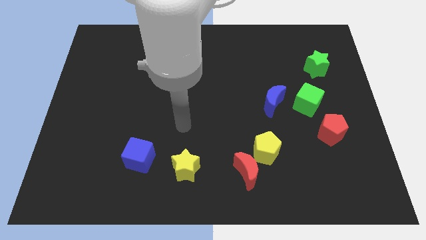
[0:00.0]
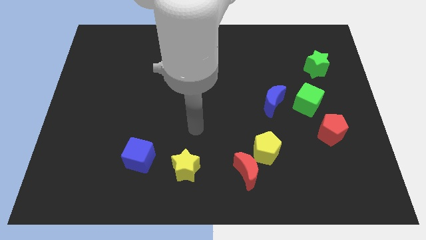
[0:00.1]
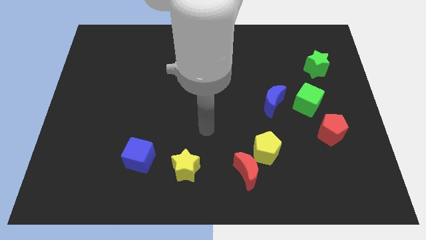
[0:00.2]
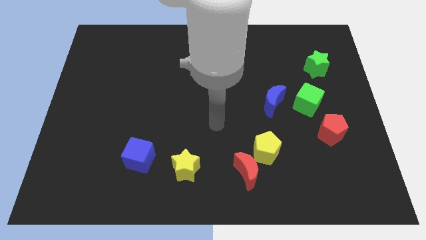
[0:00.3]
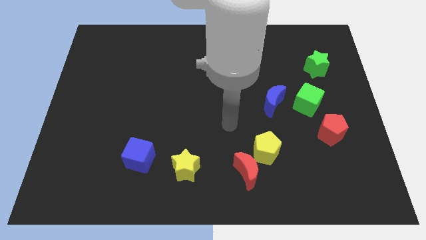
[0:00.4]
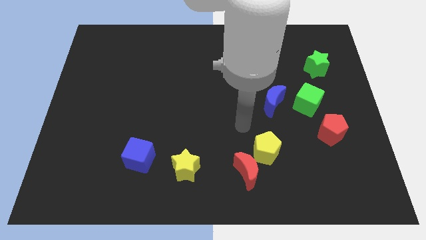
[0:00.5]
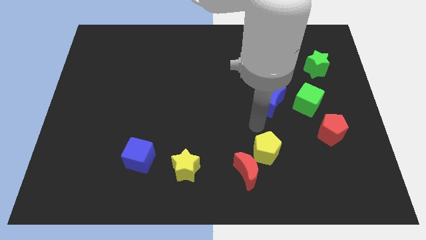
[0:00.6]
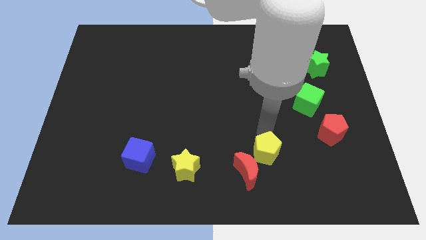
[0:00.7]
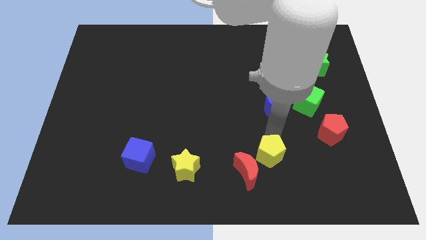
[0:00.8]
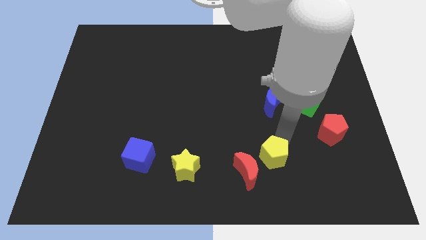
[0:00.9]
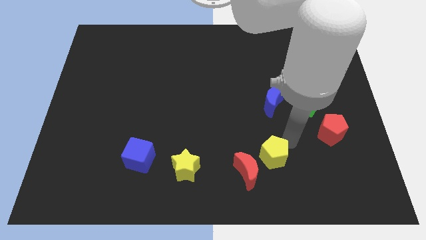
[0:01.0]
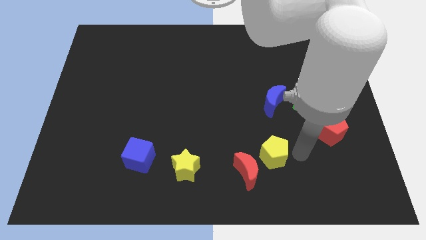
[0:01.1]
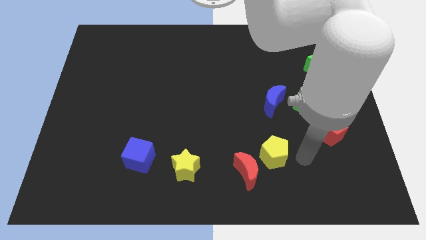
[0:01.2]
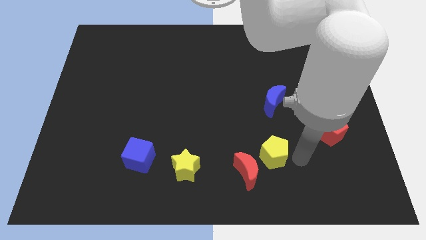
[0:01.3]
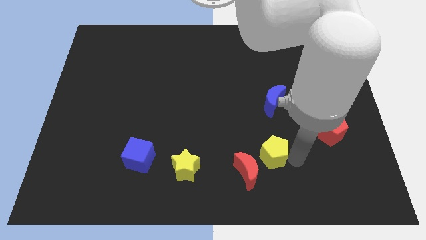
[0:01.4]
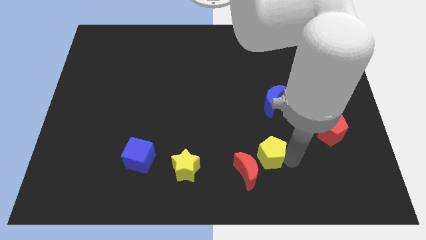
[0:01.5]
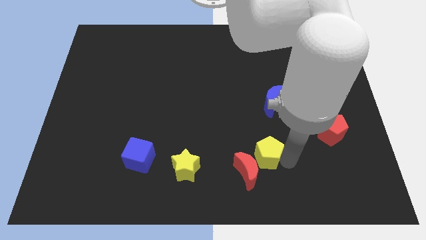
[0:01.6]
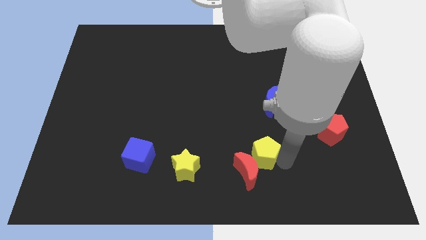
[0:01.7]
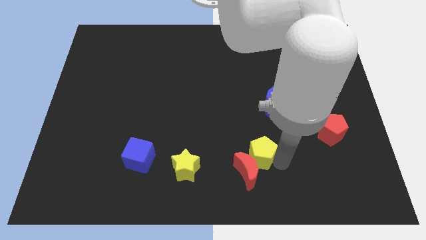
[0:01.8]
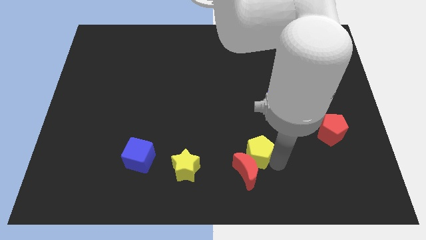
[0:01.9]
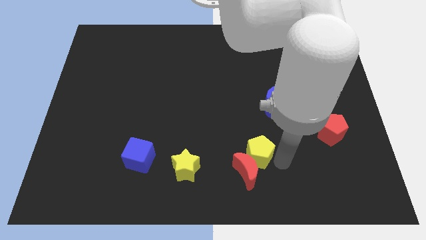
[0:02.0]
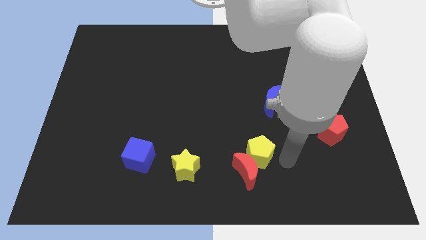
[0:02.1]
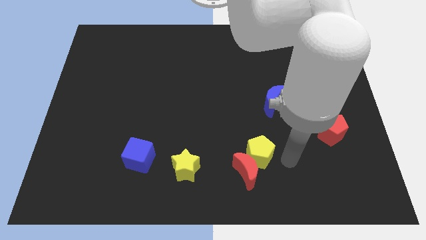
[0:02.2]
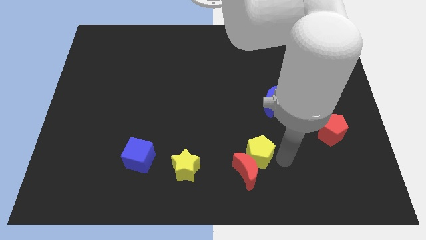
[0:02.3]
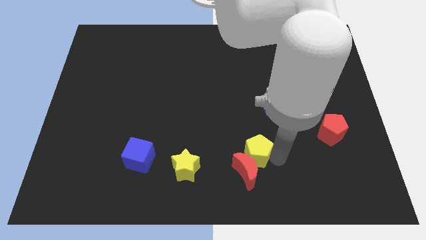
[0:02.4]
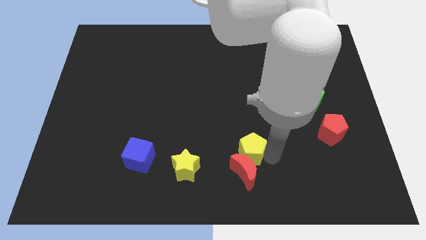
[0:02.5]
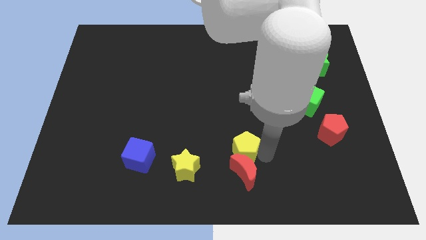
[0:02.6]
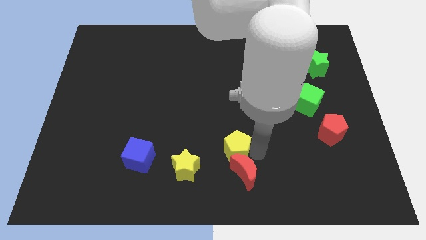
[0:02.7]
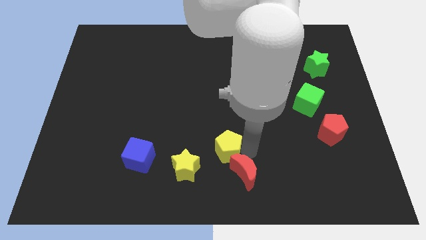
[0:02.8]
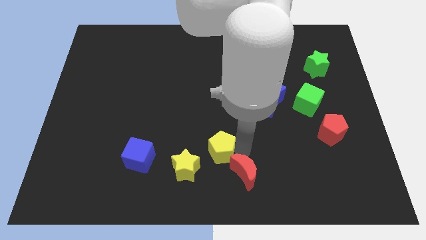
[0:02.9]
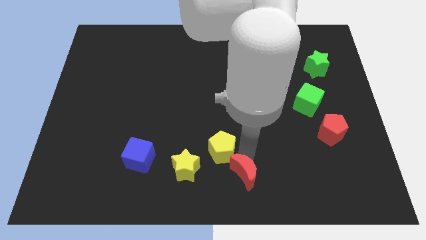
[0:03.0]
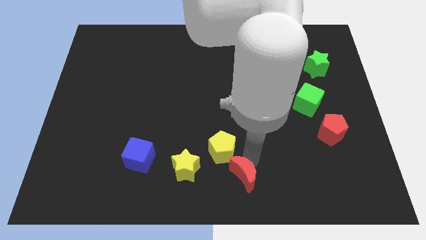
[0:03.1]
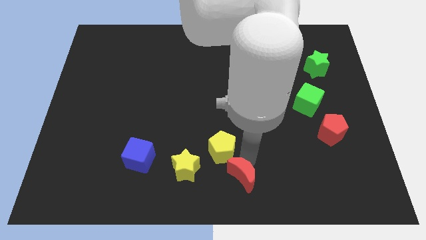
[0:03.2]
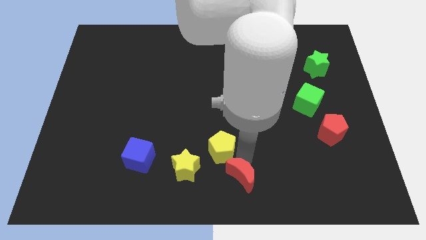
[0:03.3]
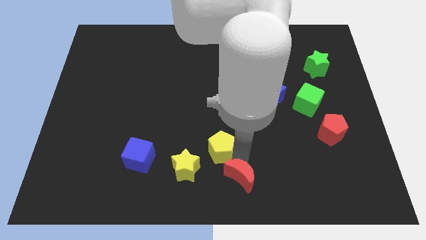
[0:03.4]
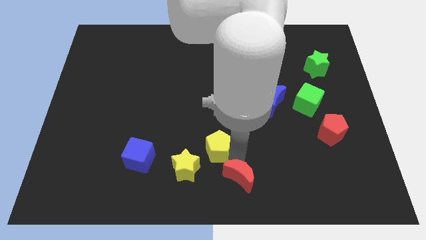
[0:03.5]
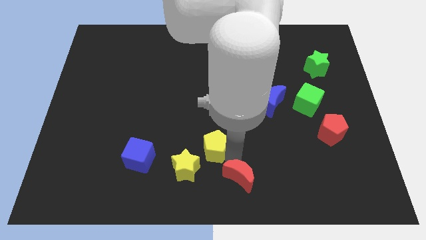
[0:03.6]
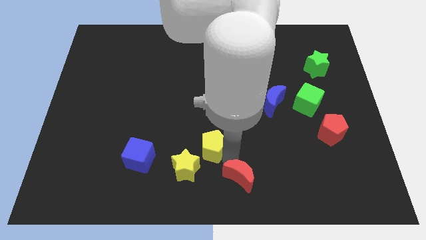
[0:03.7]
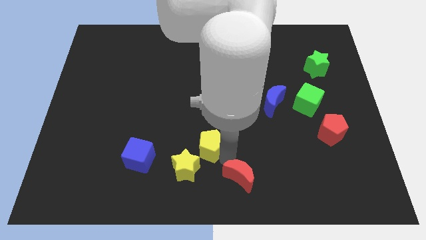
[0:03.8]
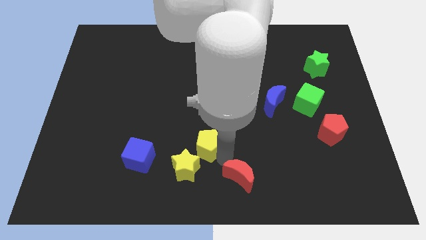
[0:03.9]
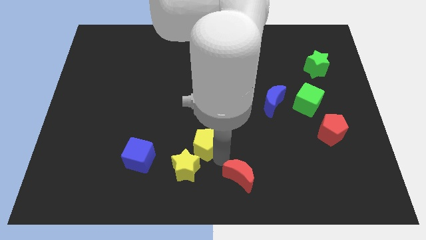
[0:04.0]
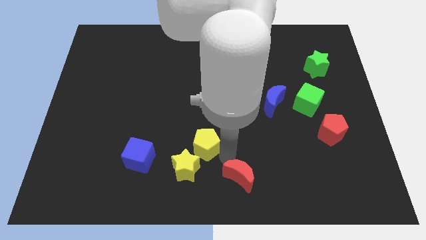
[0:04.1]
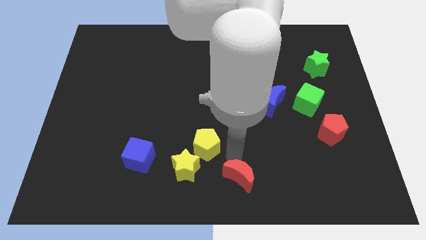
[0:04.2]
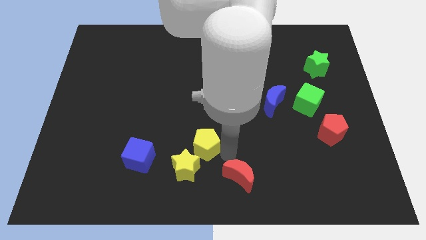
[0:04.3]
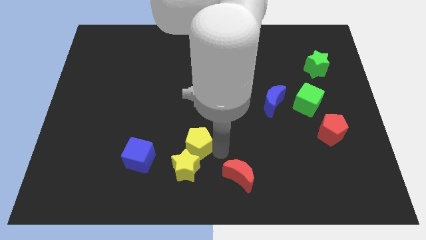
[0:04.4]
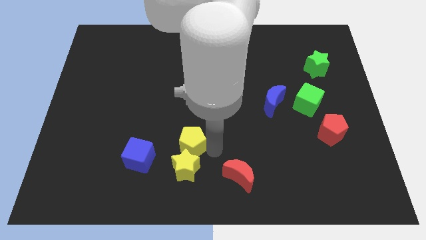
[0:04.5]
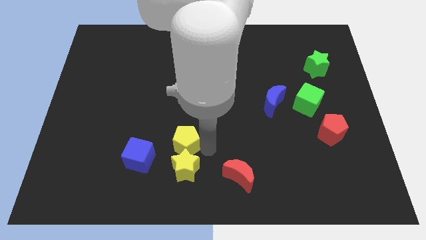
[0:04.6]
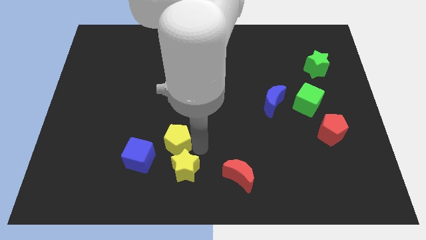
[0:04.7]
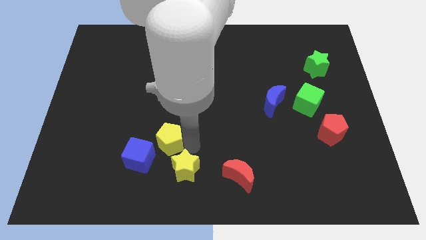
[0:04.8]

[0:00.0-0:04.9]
move the yellow pentagon left

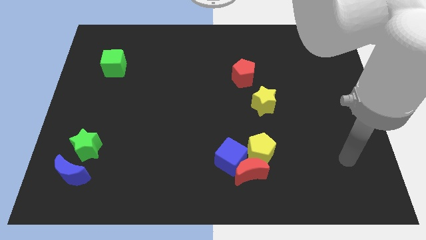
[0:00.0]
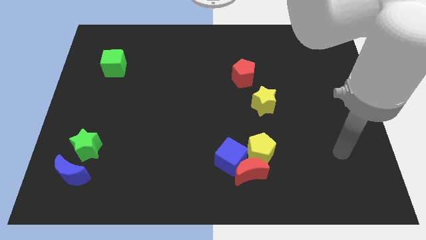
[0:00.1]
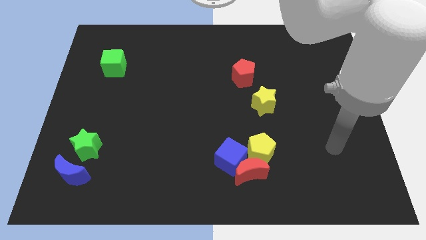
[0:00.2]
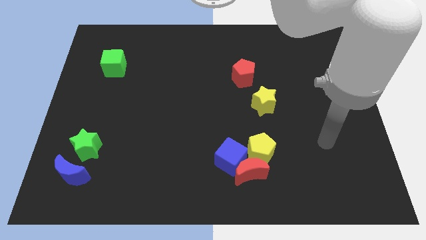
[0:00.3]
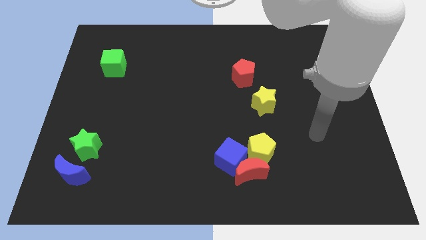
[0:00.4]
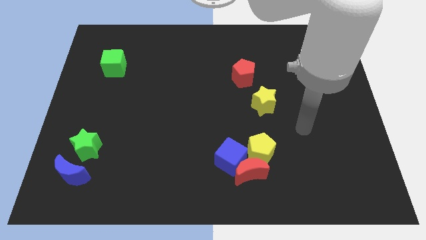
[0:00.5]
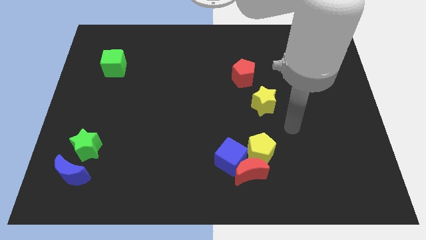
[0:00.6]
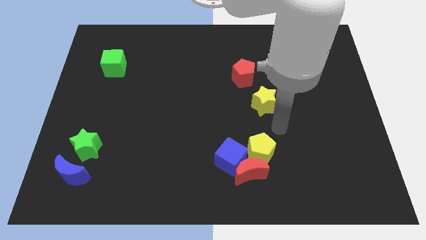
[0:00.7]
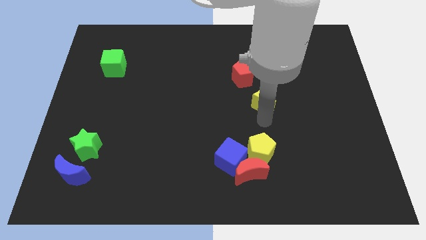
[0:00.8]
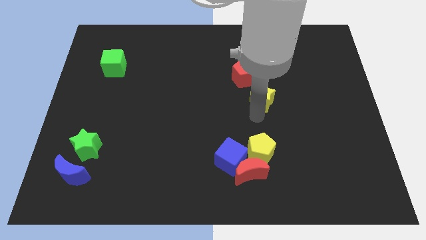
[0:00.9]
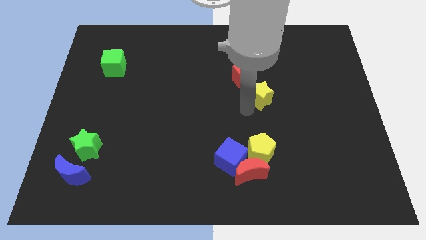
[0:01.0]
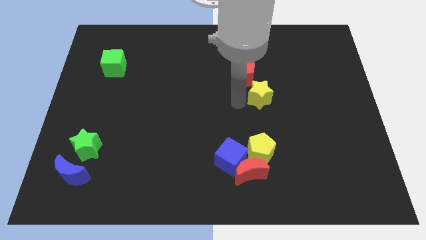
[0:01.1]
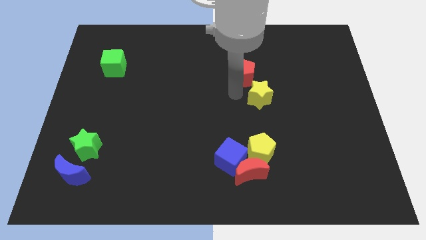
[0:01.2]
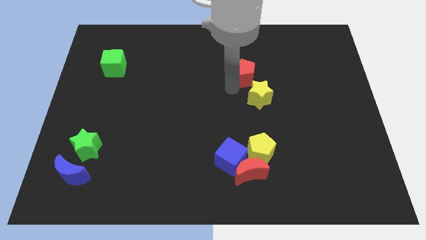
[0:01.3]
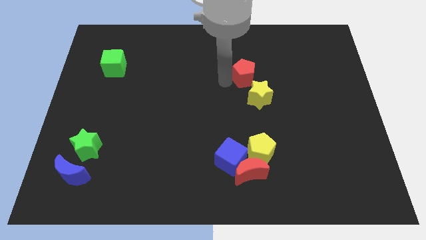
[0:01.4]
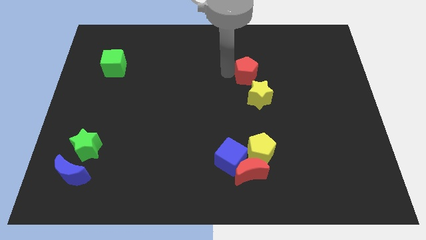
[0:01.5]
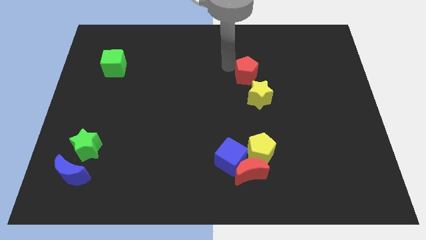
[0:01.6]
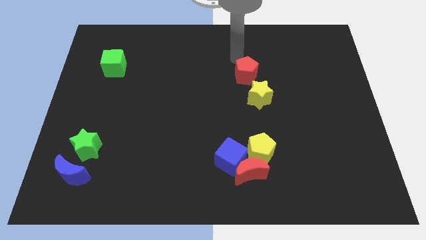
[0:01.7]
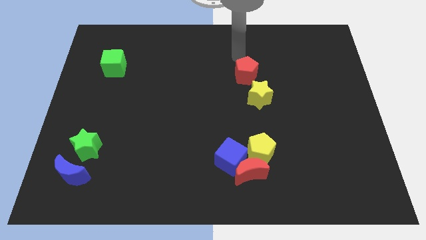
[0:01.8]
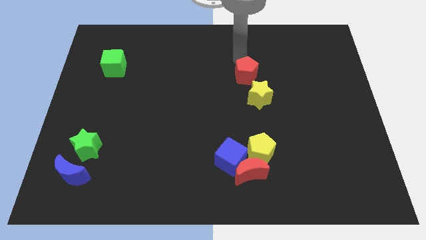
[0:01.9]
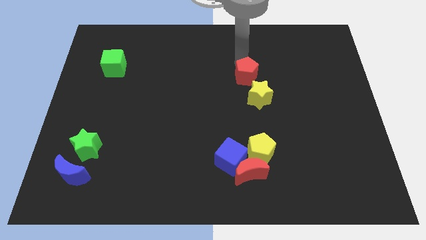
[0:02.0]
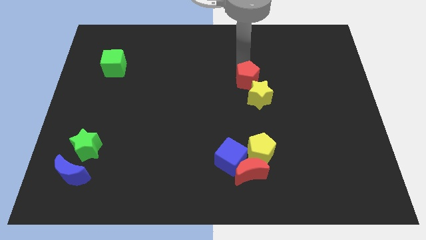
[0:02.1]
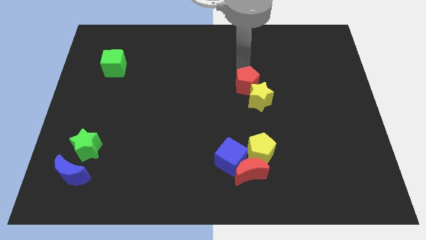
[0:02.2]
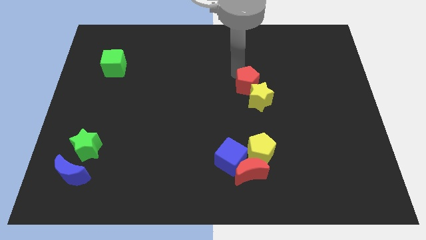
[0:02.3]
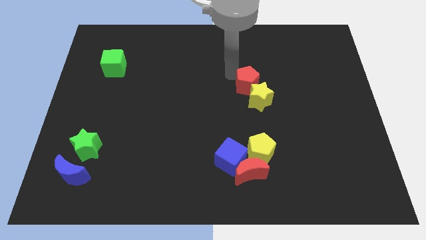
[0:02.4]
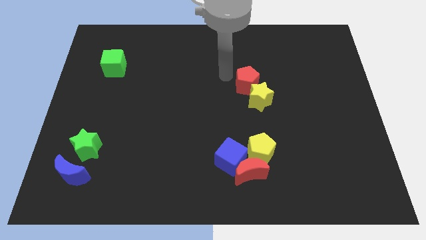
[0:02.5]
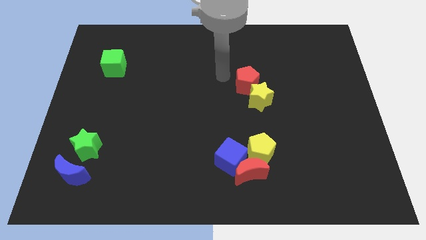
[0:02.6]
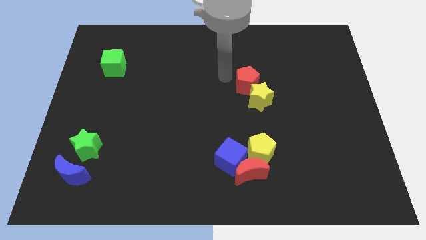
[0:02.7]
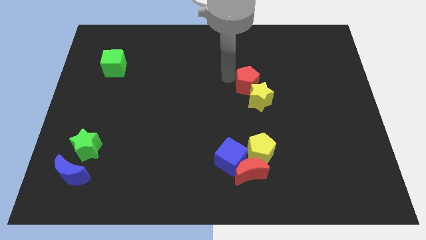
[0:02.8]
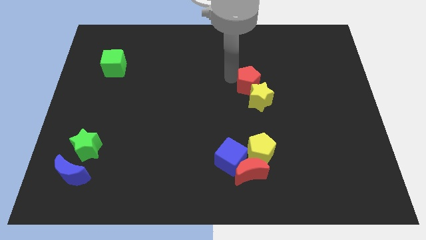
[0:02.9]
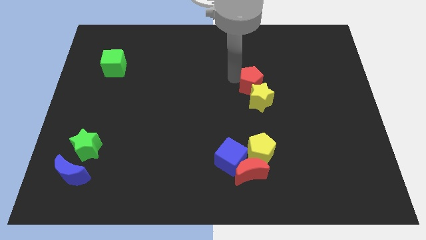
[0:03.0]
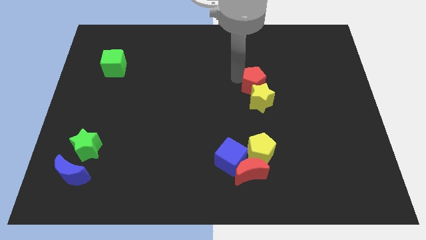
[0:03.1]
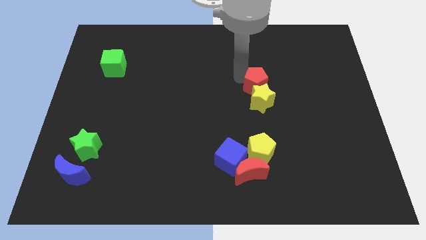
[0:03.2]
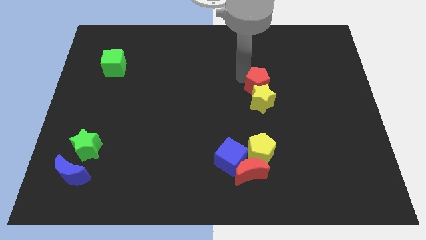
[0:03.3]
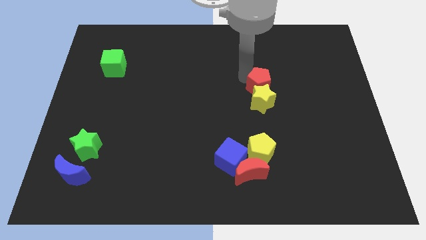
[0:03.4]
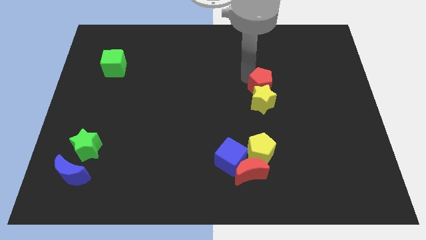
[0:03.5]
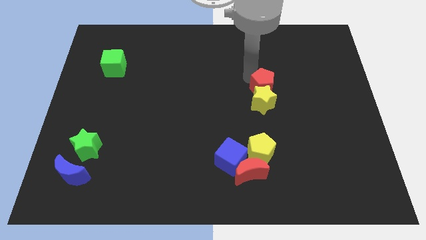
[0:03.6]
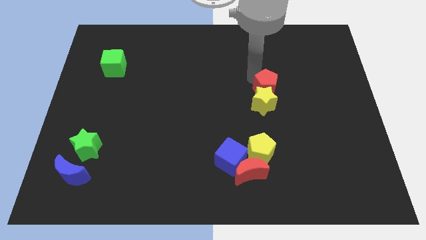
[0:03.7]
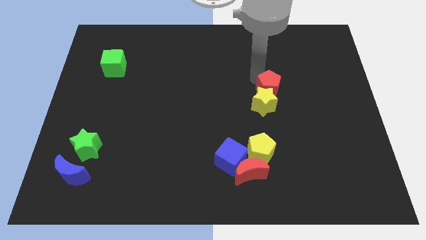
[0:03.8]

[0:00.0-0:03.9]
move the red pentagon a little bit diagonally downwards and to the right
